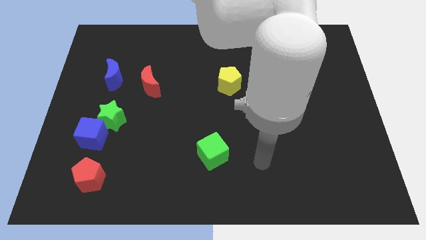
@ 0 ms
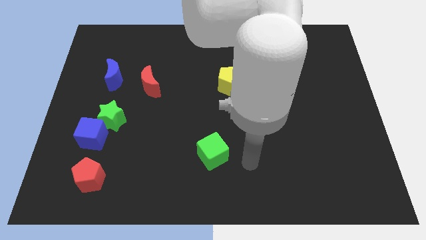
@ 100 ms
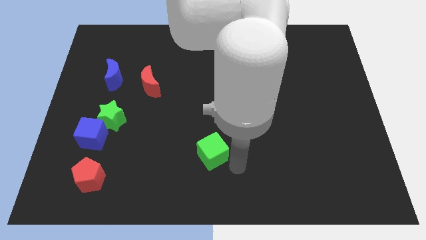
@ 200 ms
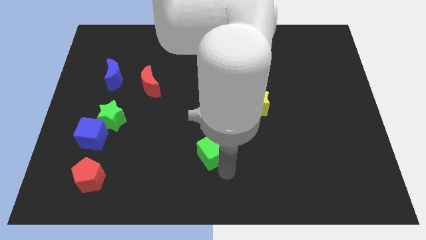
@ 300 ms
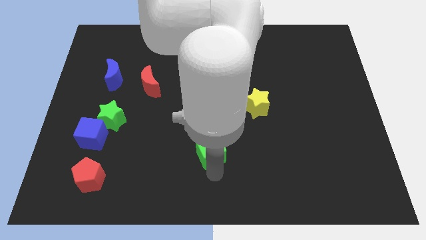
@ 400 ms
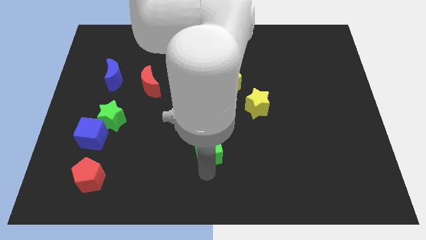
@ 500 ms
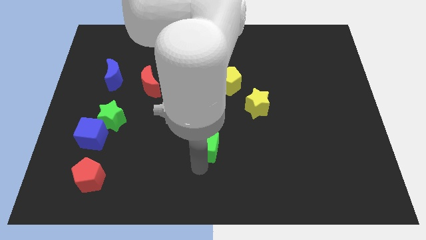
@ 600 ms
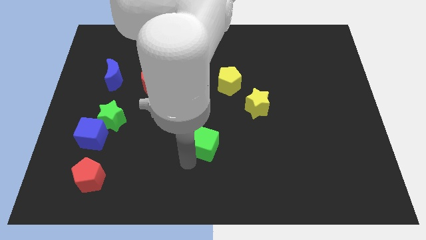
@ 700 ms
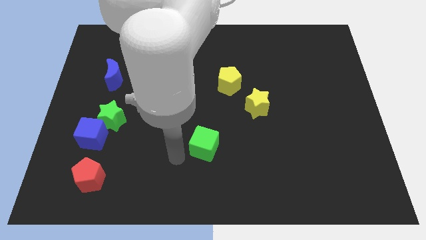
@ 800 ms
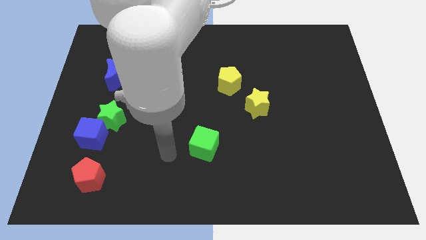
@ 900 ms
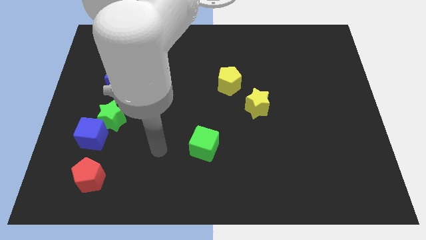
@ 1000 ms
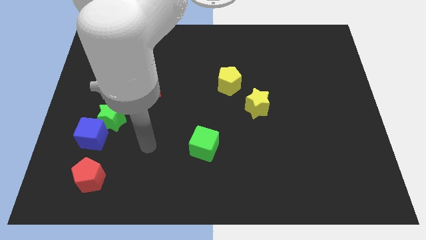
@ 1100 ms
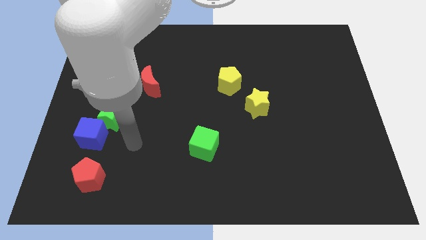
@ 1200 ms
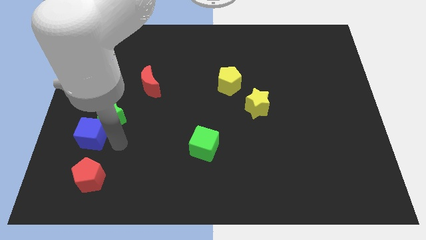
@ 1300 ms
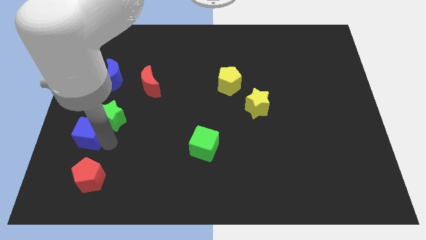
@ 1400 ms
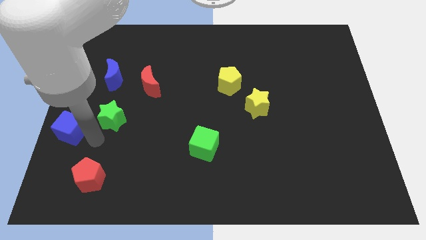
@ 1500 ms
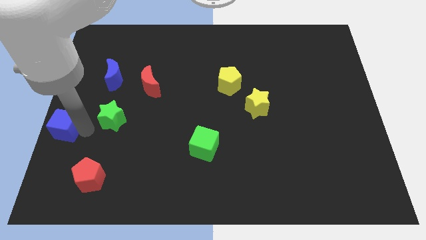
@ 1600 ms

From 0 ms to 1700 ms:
pull the green star apart from the blue cube

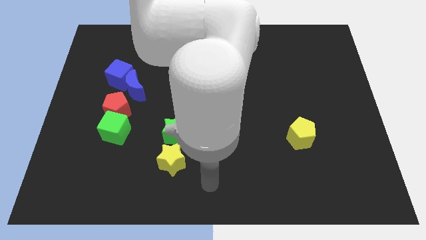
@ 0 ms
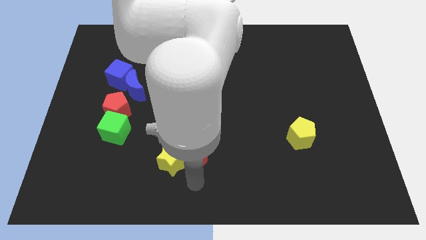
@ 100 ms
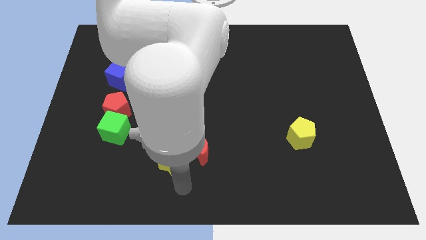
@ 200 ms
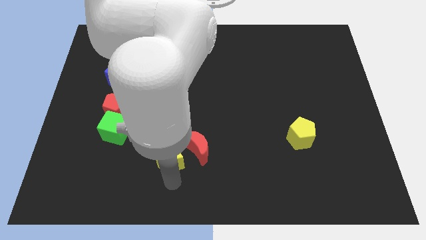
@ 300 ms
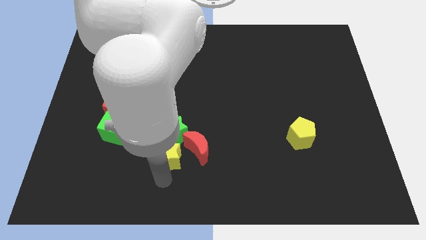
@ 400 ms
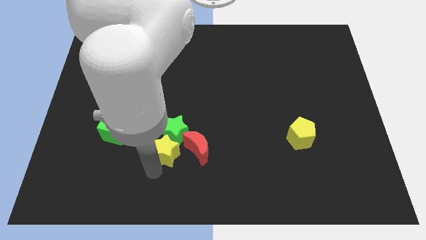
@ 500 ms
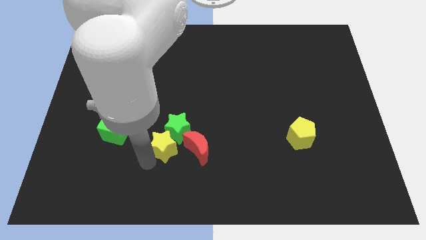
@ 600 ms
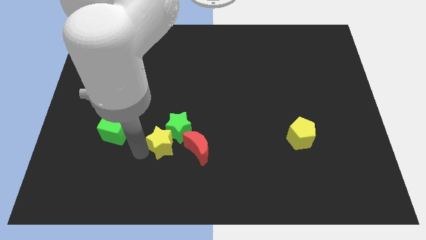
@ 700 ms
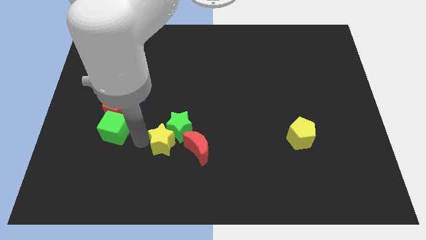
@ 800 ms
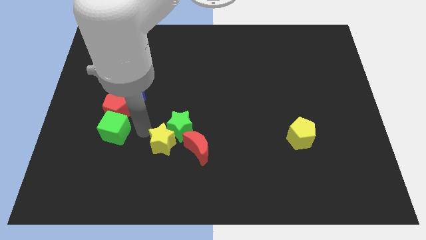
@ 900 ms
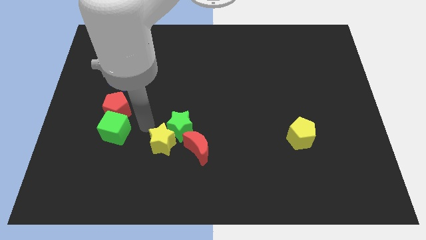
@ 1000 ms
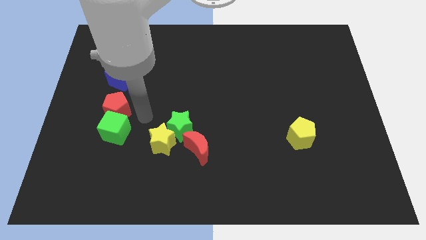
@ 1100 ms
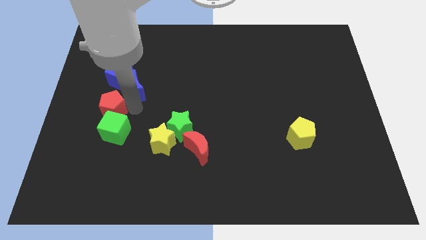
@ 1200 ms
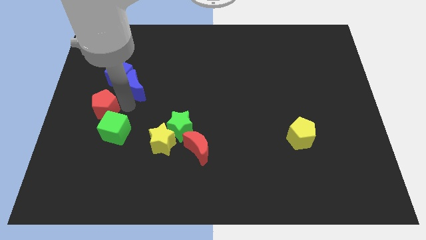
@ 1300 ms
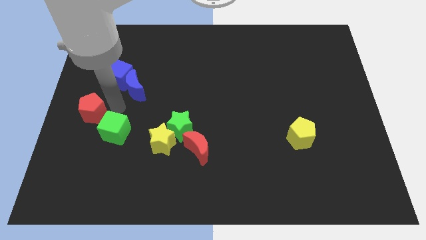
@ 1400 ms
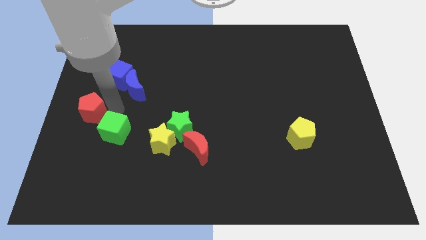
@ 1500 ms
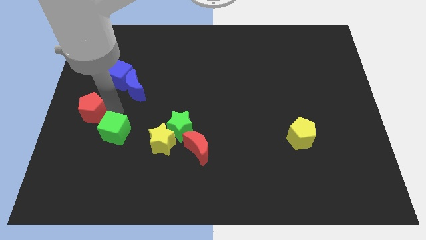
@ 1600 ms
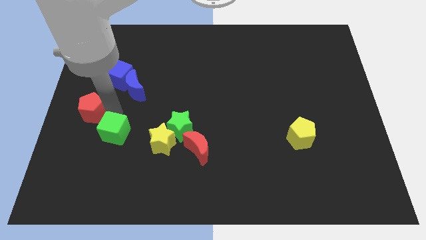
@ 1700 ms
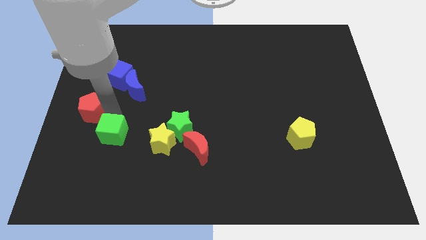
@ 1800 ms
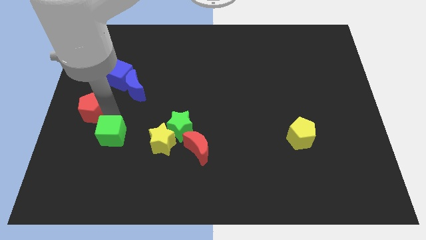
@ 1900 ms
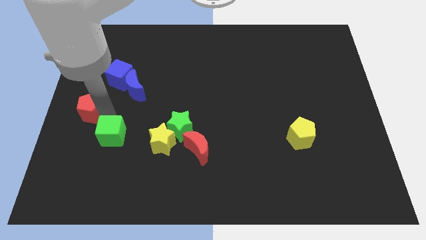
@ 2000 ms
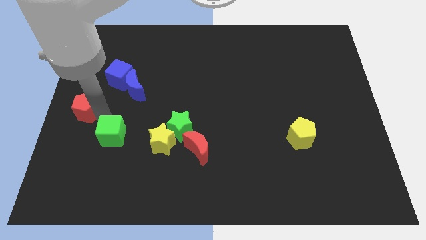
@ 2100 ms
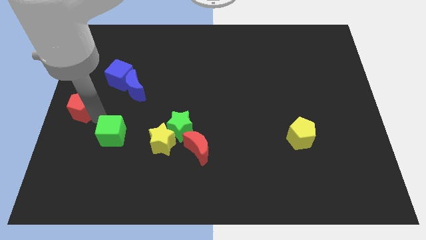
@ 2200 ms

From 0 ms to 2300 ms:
separate the green cube from the red pentagon

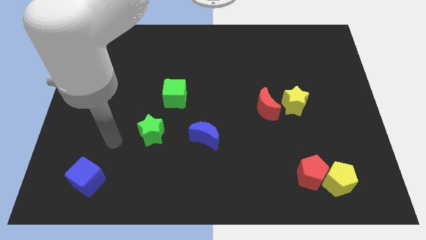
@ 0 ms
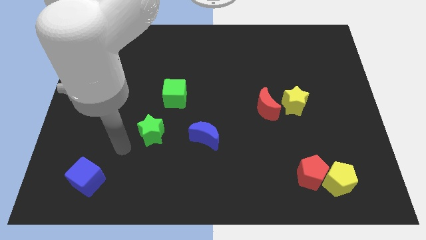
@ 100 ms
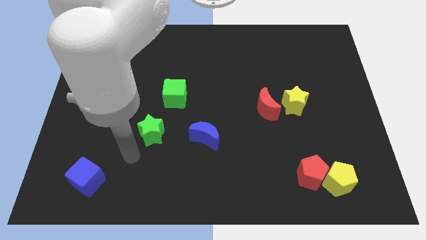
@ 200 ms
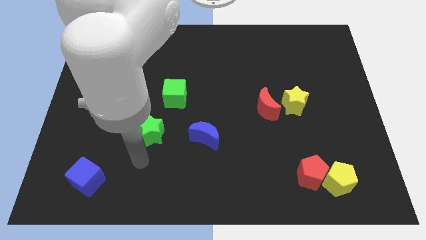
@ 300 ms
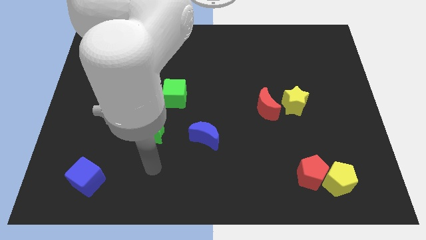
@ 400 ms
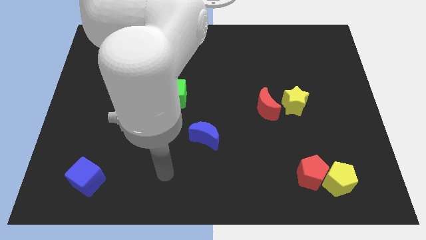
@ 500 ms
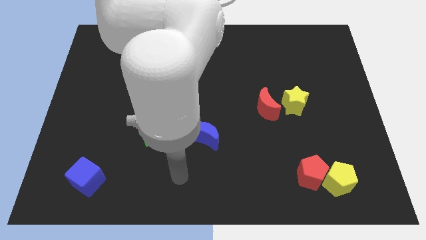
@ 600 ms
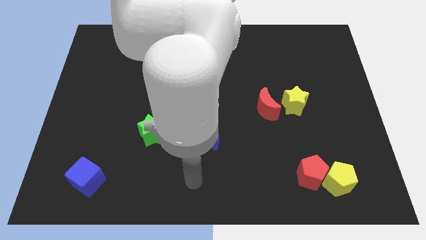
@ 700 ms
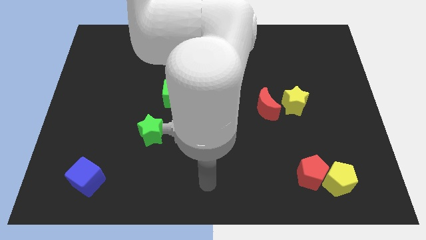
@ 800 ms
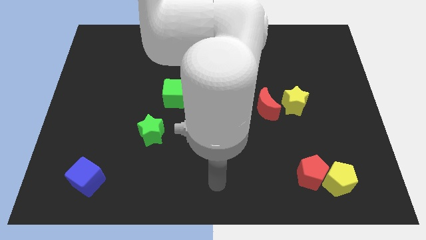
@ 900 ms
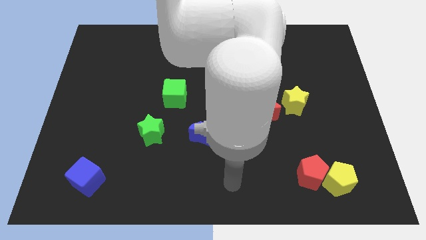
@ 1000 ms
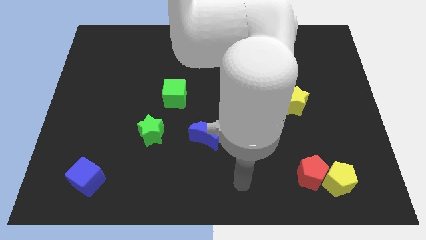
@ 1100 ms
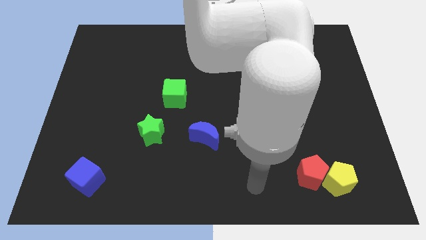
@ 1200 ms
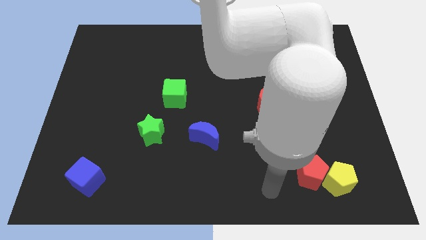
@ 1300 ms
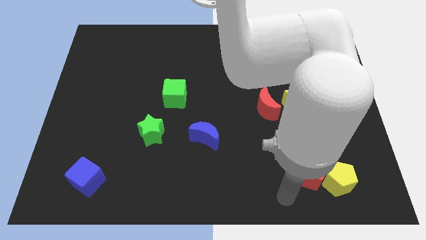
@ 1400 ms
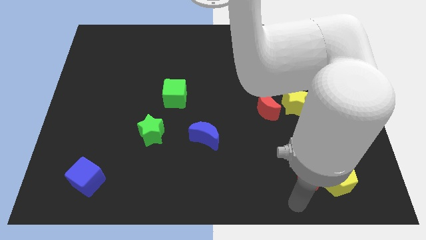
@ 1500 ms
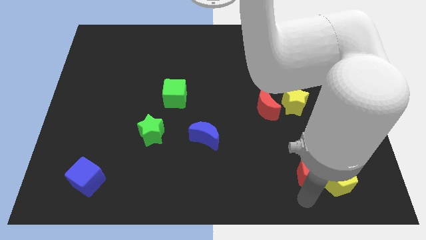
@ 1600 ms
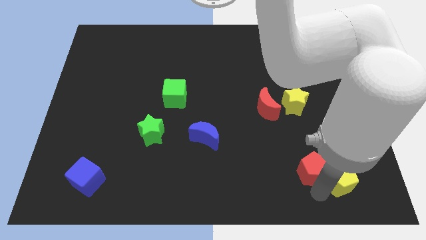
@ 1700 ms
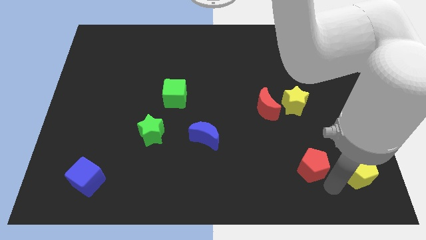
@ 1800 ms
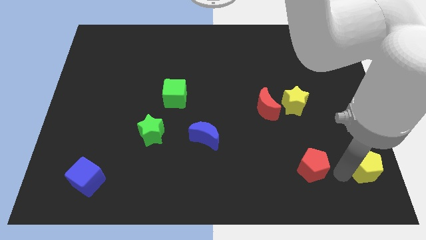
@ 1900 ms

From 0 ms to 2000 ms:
separate the red pentagon from the yellow pentagon

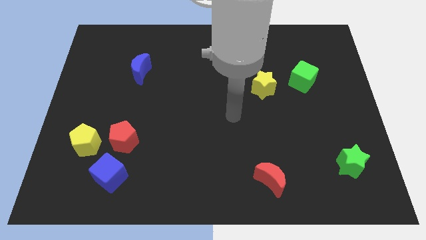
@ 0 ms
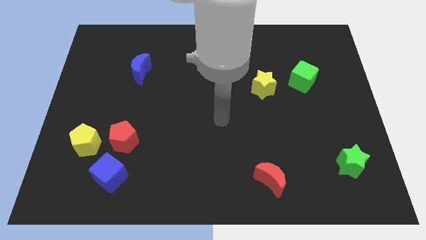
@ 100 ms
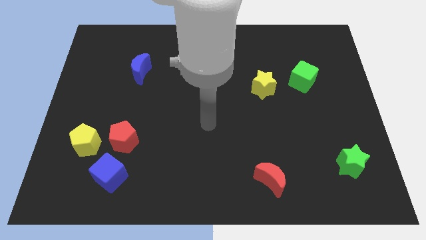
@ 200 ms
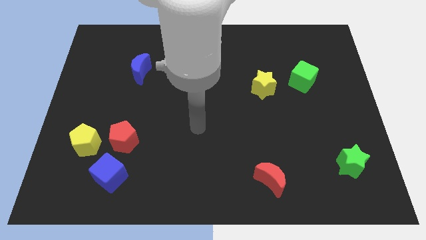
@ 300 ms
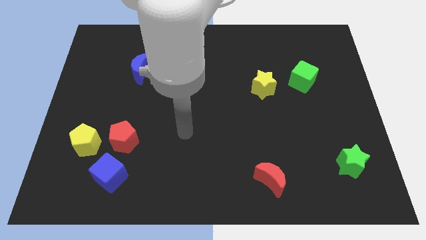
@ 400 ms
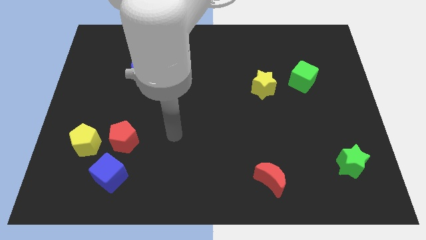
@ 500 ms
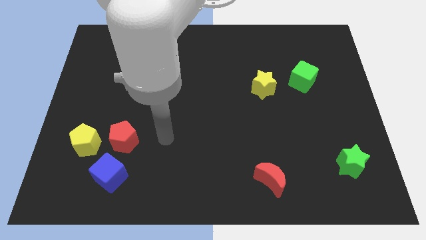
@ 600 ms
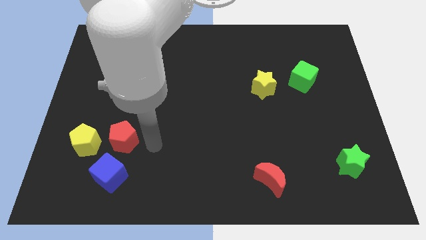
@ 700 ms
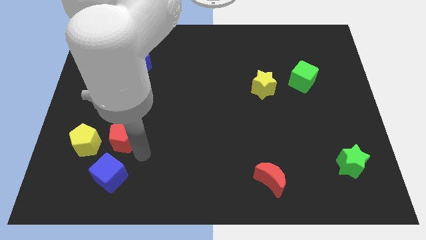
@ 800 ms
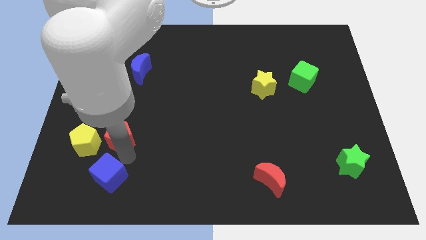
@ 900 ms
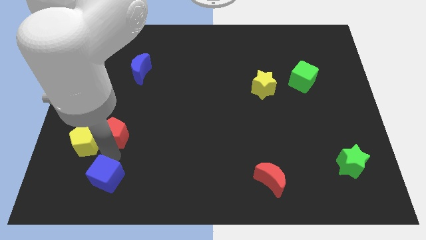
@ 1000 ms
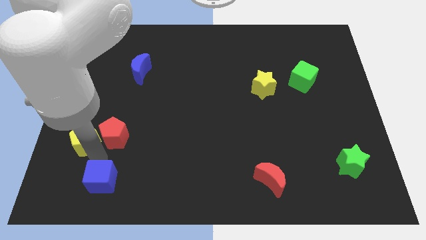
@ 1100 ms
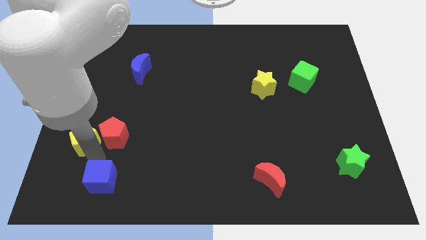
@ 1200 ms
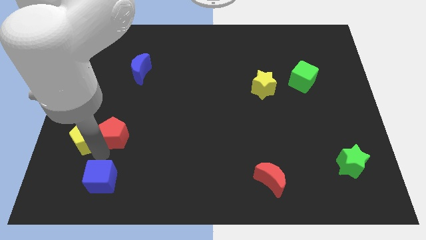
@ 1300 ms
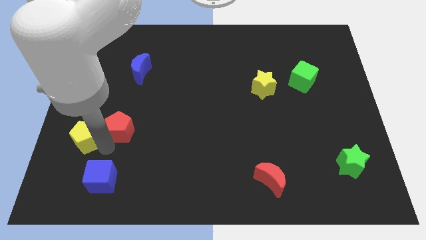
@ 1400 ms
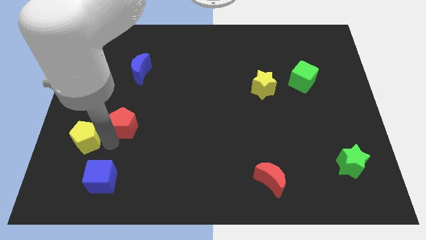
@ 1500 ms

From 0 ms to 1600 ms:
move the red pentagon away from the yellow pentagon and blue cube

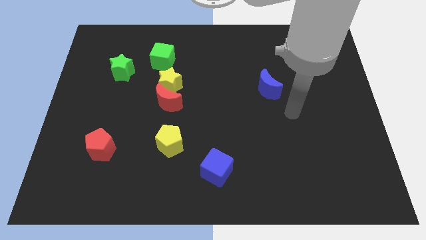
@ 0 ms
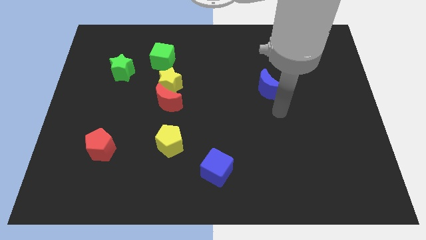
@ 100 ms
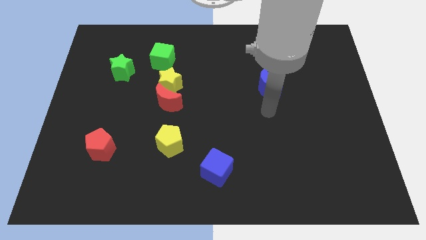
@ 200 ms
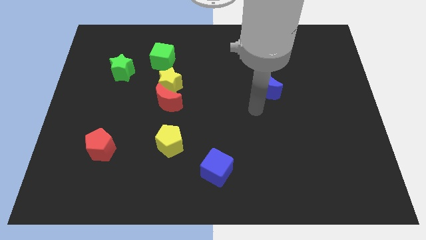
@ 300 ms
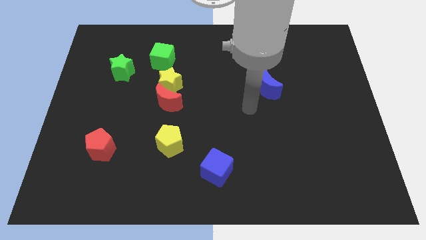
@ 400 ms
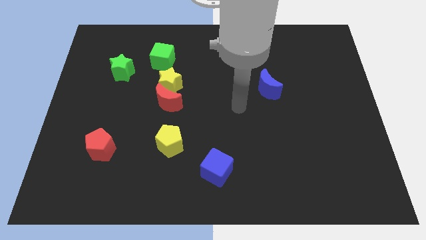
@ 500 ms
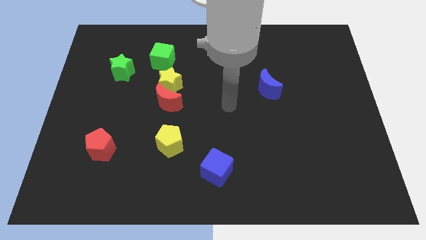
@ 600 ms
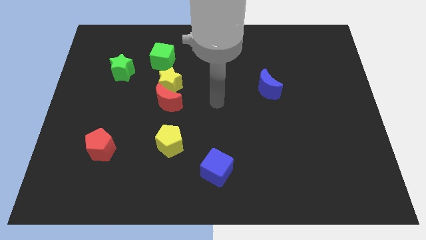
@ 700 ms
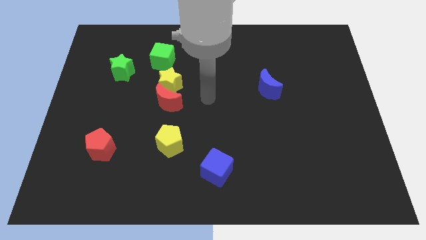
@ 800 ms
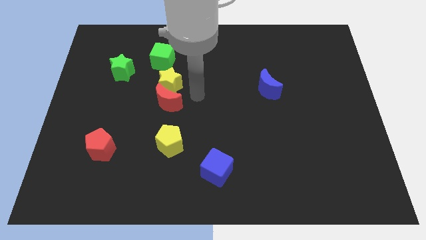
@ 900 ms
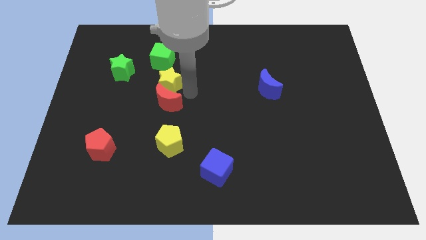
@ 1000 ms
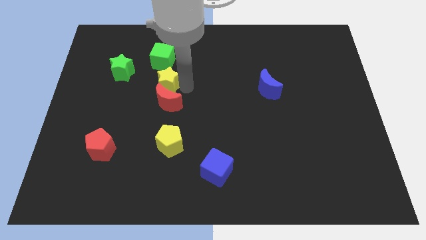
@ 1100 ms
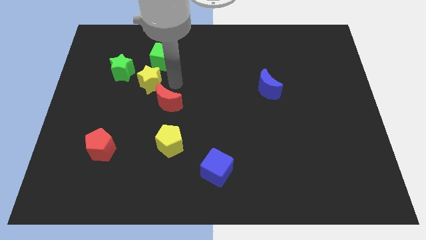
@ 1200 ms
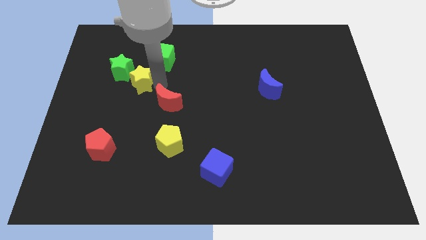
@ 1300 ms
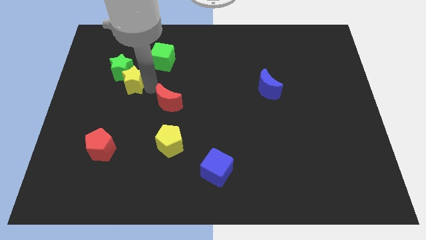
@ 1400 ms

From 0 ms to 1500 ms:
move the red moon away from the yellow star

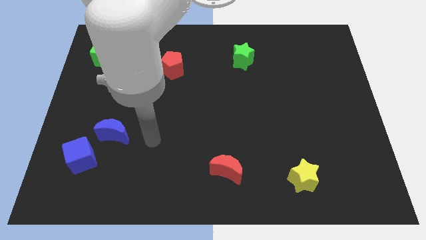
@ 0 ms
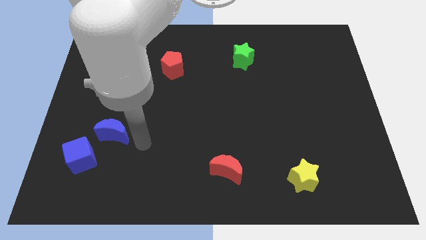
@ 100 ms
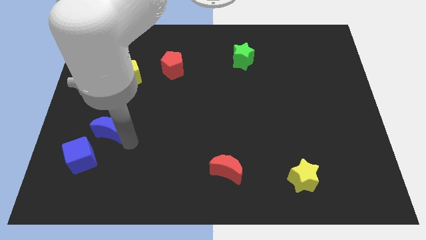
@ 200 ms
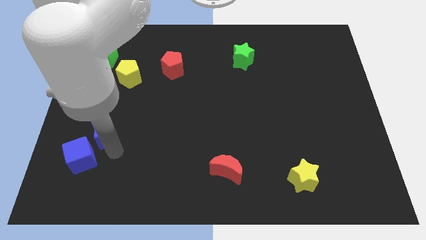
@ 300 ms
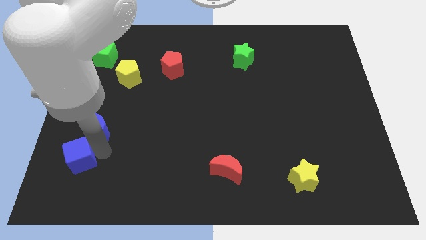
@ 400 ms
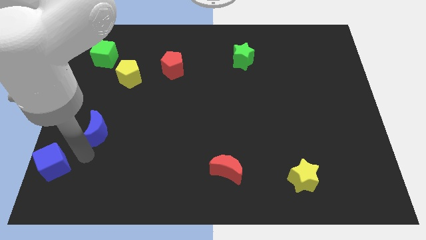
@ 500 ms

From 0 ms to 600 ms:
pull the blue moon apart from the blue cube
